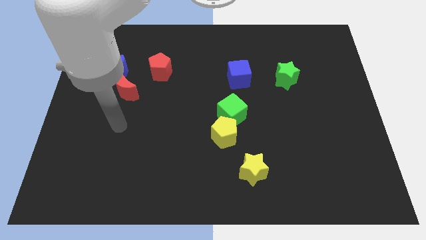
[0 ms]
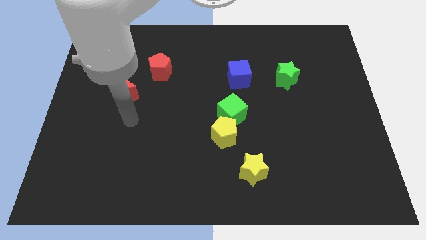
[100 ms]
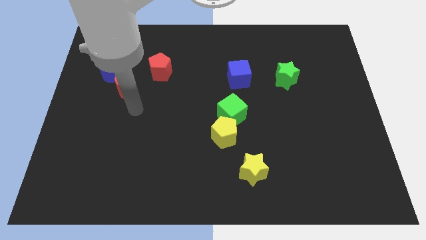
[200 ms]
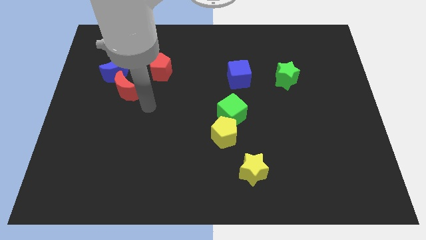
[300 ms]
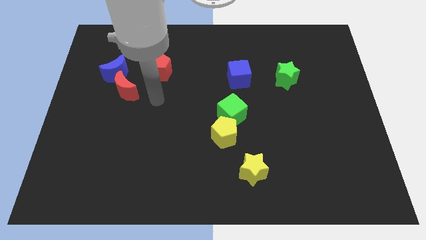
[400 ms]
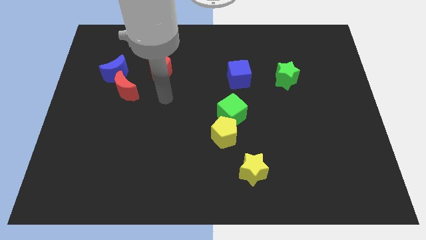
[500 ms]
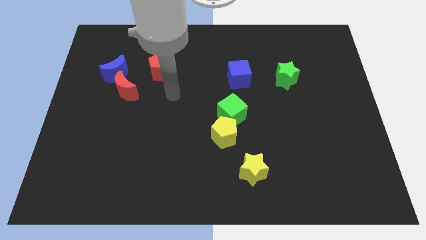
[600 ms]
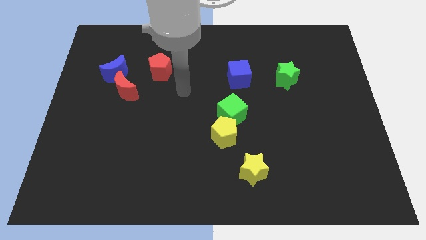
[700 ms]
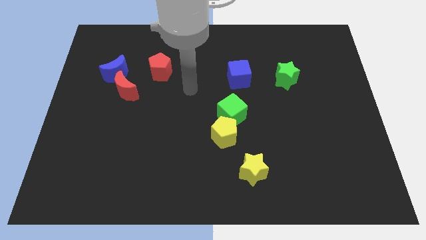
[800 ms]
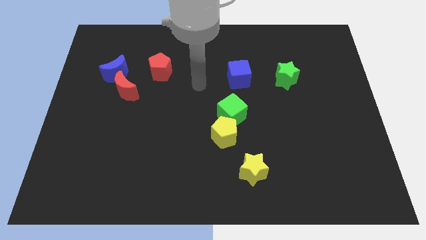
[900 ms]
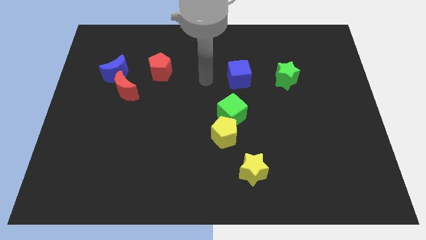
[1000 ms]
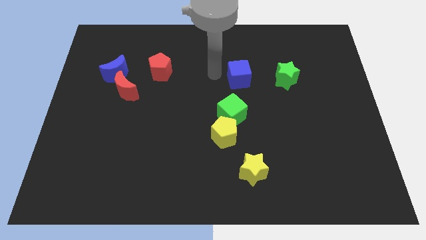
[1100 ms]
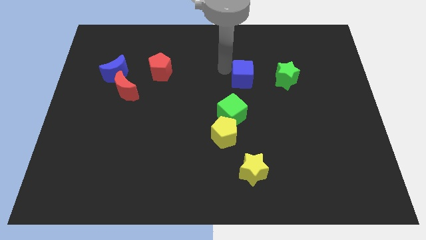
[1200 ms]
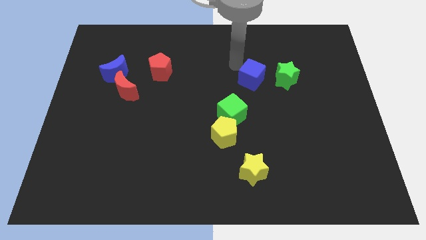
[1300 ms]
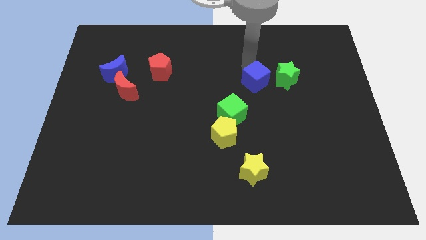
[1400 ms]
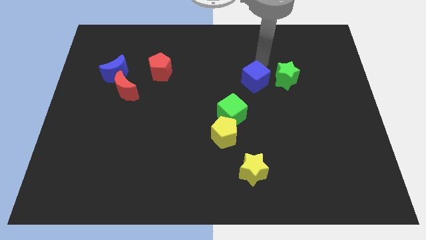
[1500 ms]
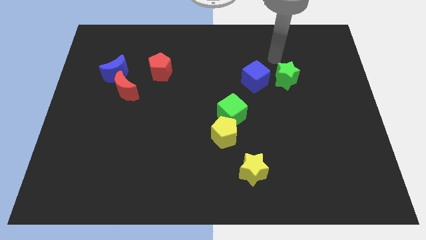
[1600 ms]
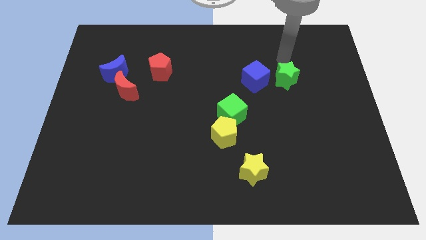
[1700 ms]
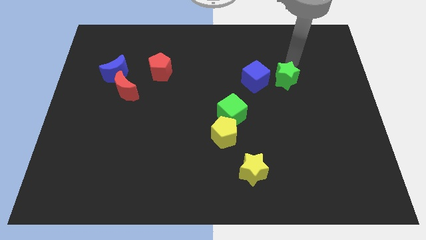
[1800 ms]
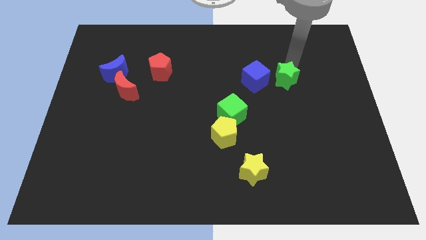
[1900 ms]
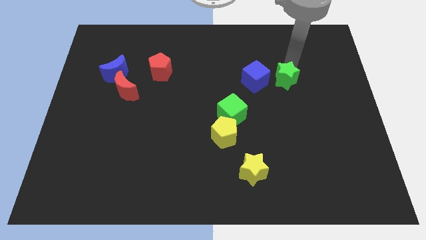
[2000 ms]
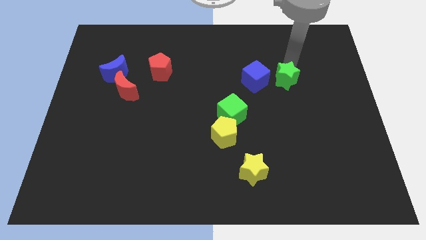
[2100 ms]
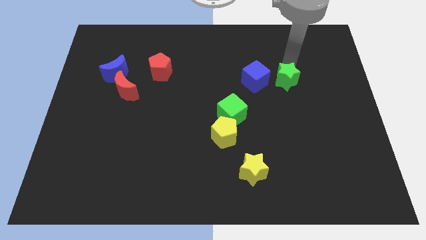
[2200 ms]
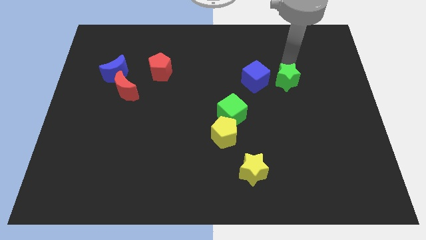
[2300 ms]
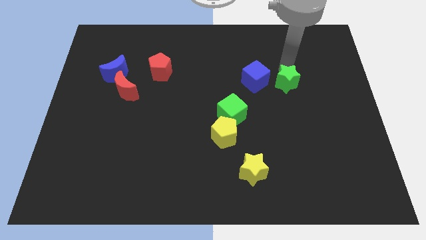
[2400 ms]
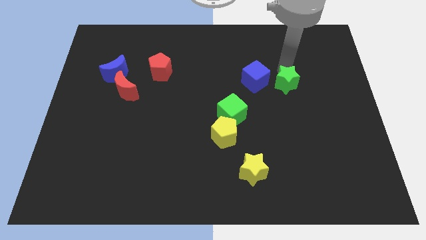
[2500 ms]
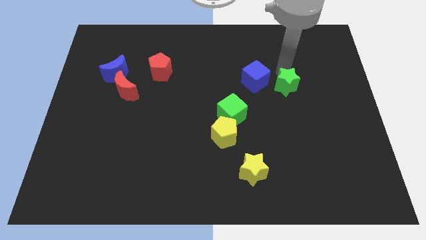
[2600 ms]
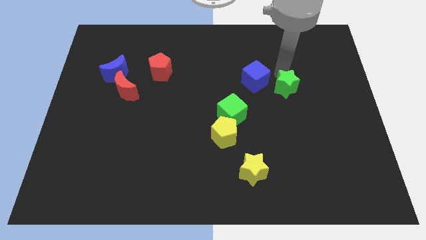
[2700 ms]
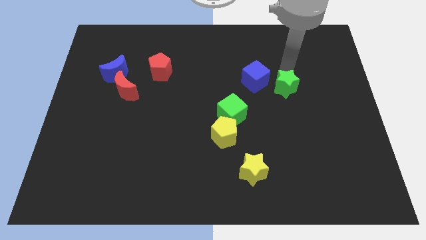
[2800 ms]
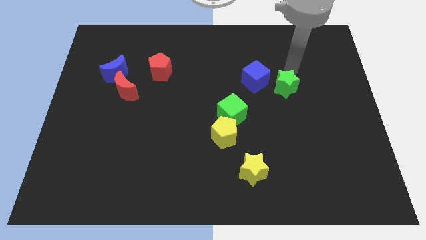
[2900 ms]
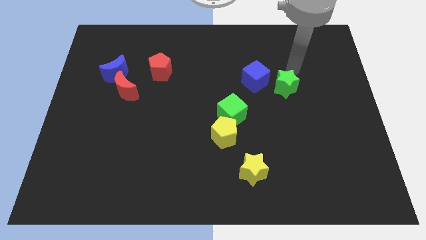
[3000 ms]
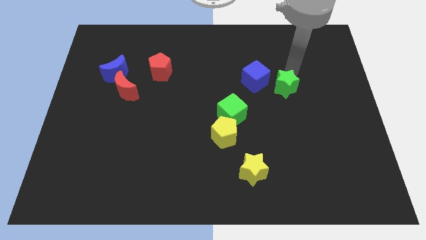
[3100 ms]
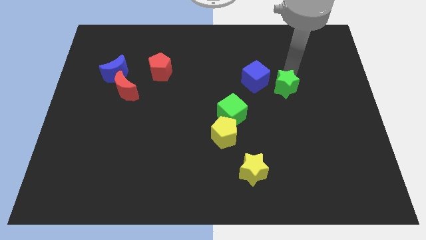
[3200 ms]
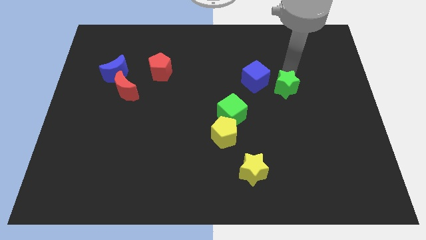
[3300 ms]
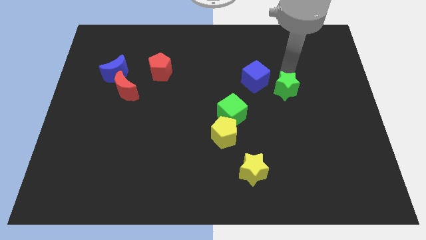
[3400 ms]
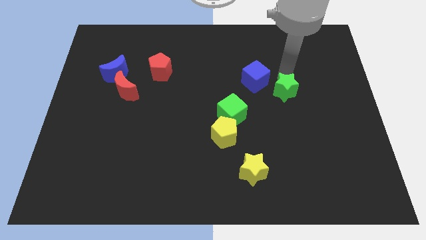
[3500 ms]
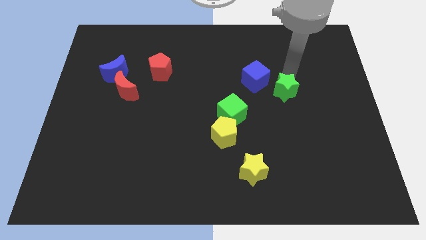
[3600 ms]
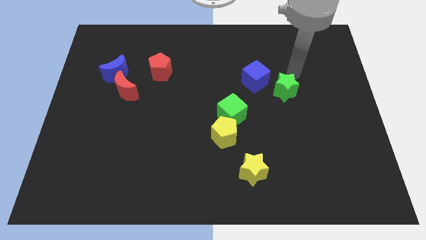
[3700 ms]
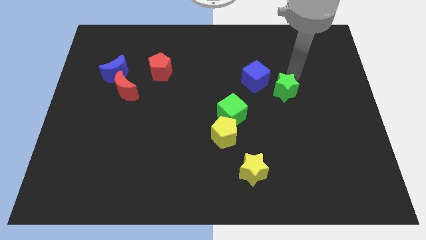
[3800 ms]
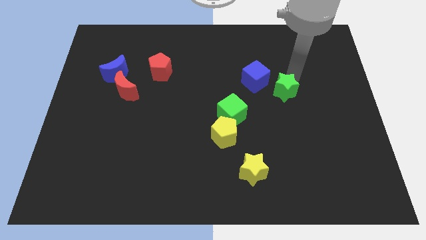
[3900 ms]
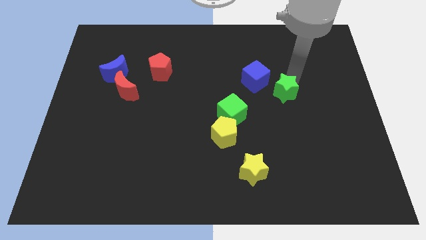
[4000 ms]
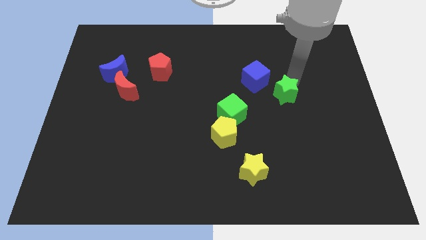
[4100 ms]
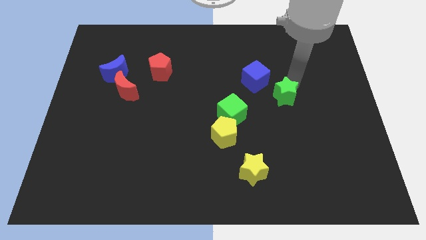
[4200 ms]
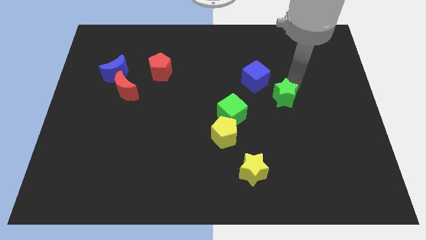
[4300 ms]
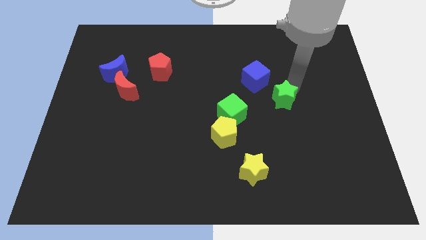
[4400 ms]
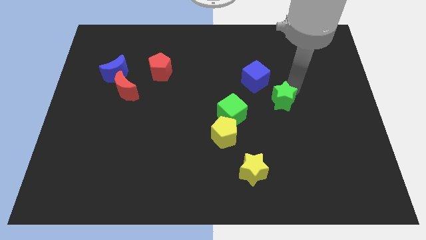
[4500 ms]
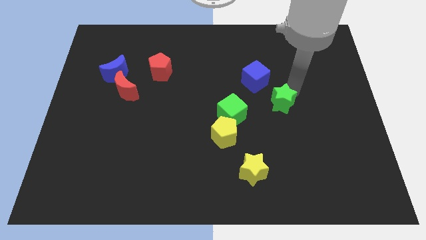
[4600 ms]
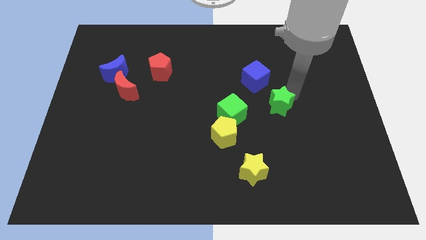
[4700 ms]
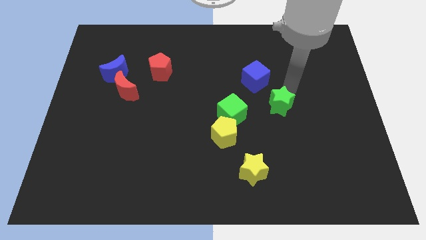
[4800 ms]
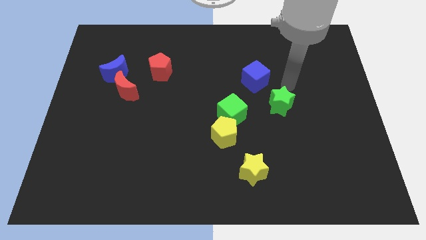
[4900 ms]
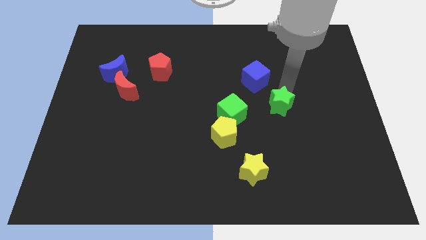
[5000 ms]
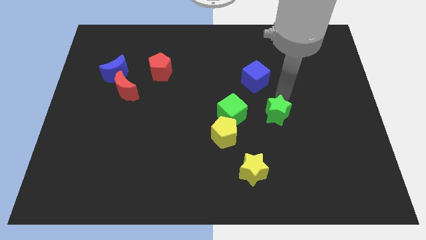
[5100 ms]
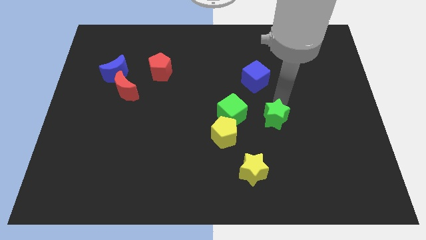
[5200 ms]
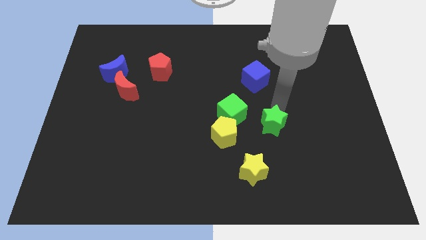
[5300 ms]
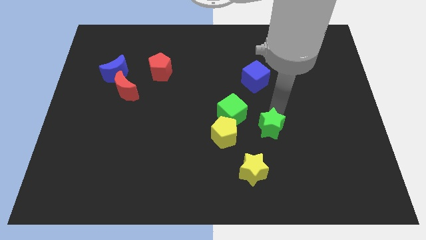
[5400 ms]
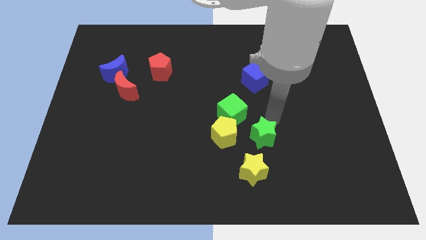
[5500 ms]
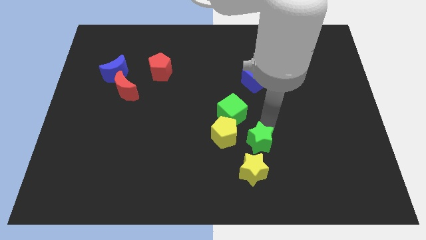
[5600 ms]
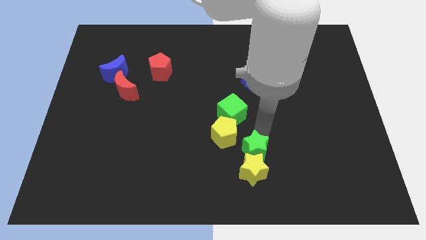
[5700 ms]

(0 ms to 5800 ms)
move the green star towards the yellow star

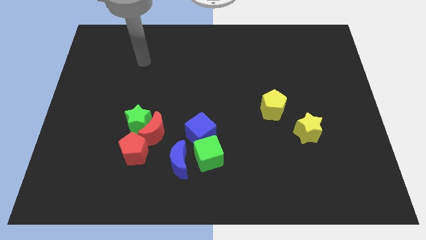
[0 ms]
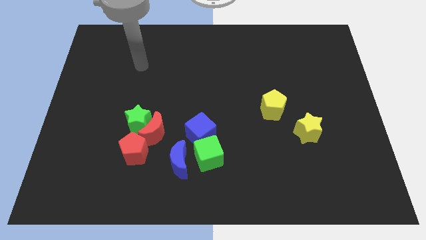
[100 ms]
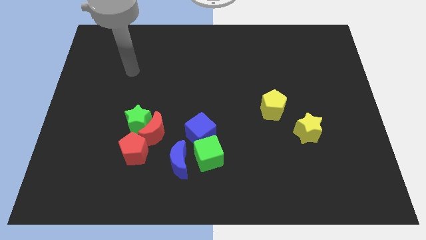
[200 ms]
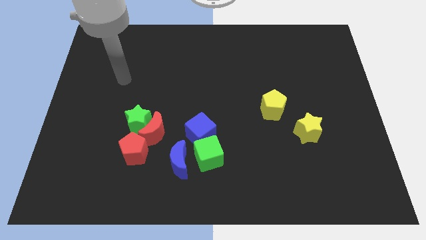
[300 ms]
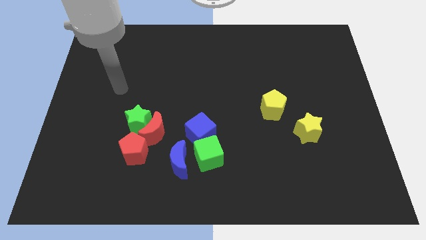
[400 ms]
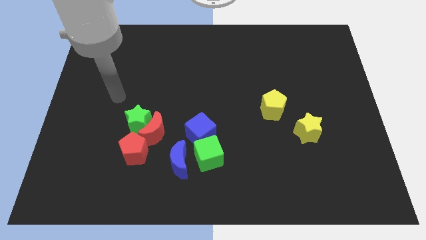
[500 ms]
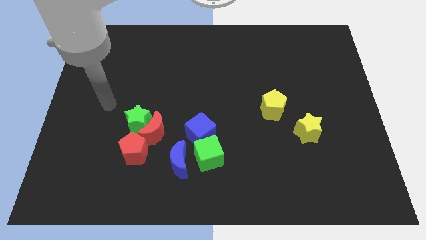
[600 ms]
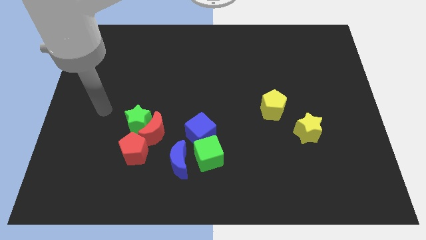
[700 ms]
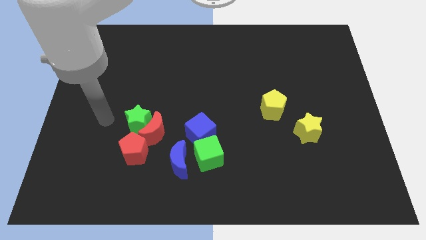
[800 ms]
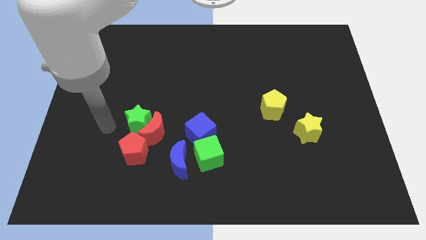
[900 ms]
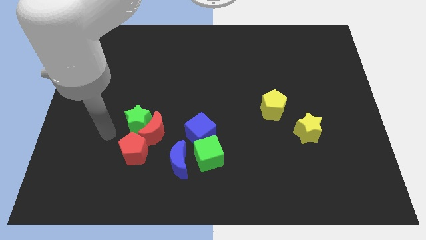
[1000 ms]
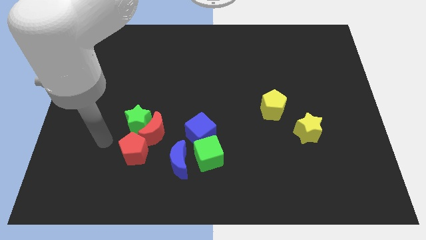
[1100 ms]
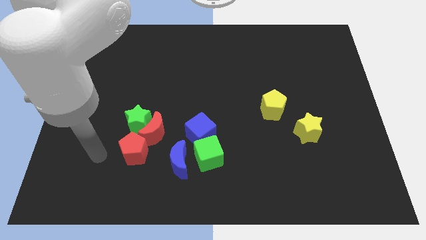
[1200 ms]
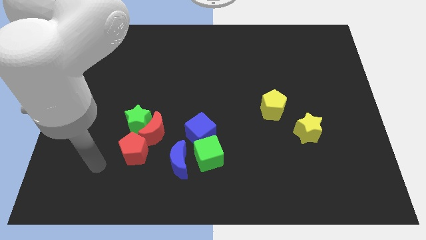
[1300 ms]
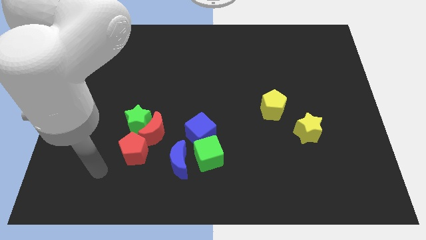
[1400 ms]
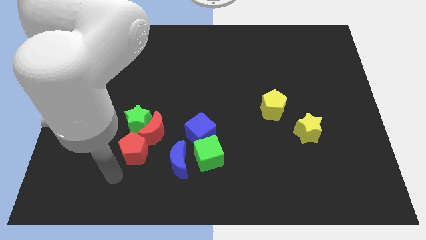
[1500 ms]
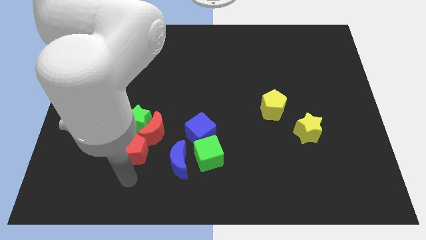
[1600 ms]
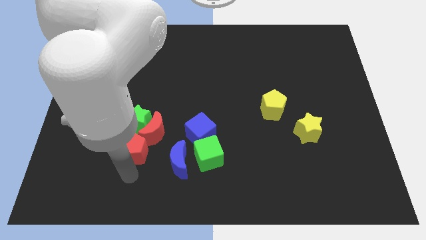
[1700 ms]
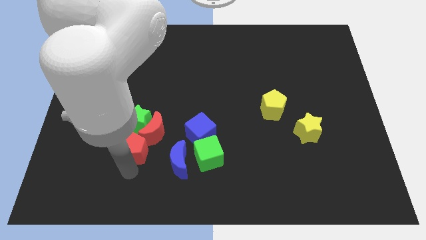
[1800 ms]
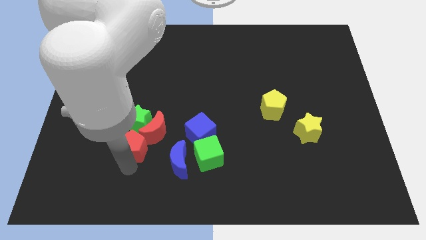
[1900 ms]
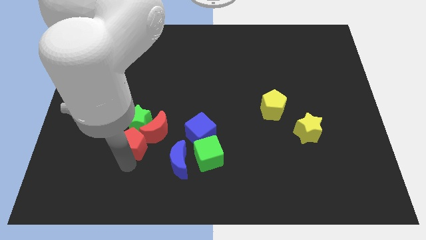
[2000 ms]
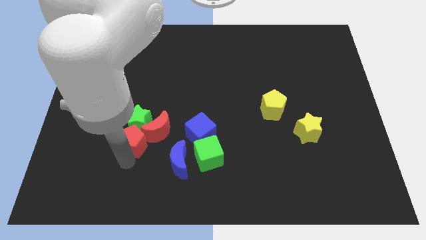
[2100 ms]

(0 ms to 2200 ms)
put the red pentagon towards the green star
